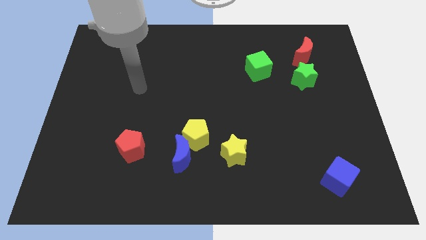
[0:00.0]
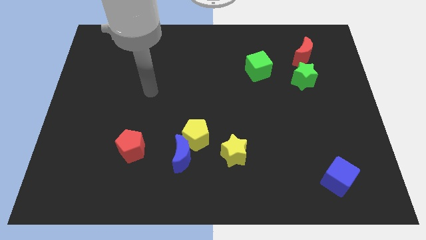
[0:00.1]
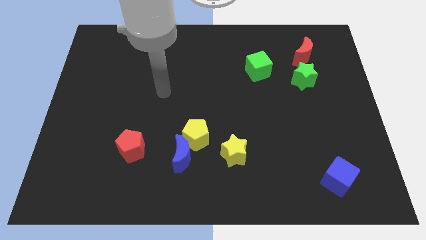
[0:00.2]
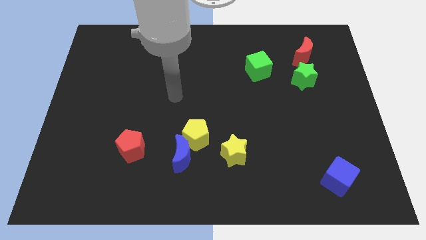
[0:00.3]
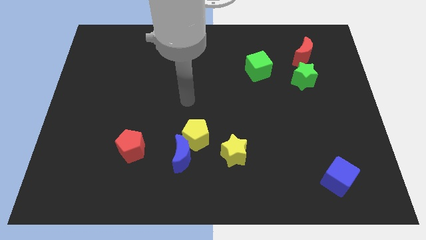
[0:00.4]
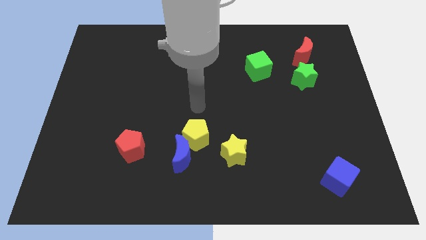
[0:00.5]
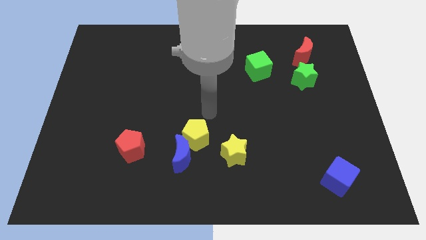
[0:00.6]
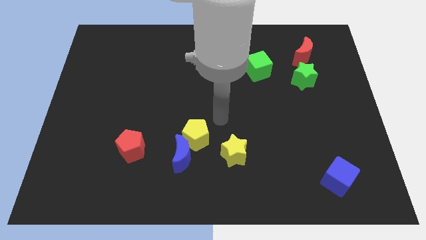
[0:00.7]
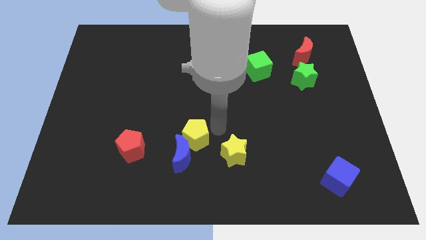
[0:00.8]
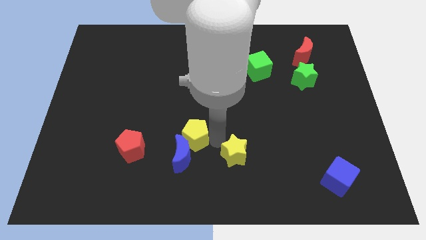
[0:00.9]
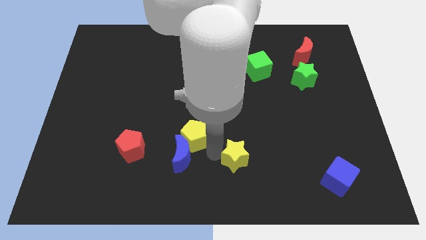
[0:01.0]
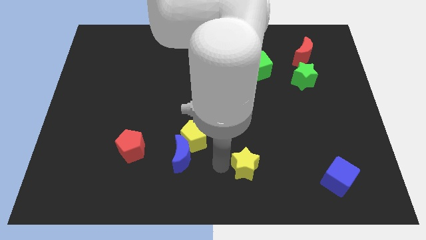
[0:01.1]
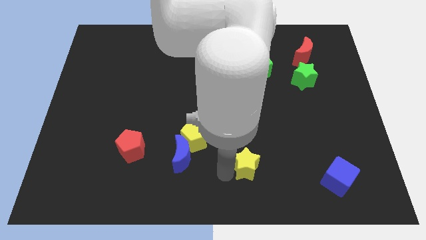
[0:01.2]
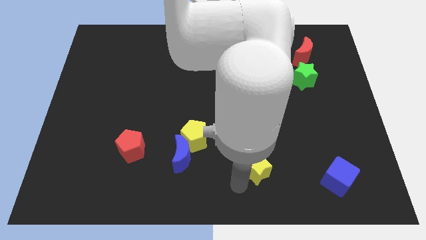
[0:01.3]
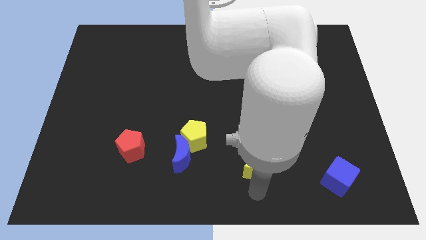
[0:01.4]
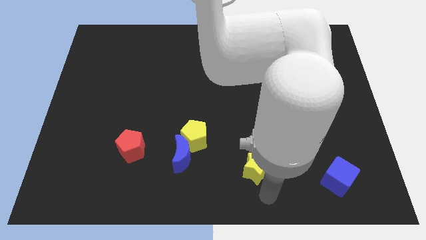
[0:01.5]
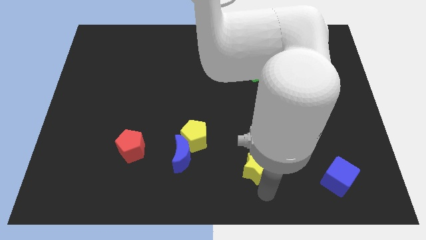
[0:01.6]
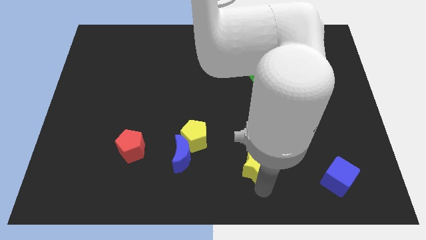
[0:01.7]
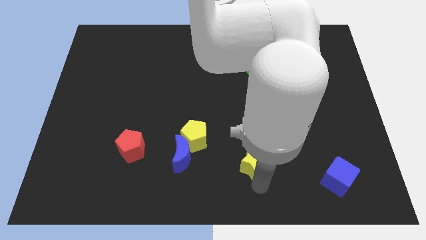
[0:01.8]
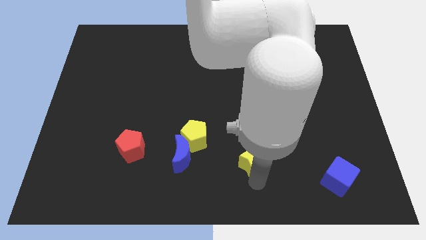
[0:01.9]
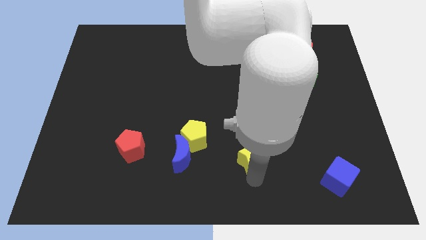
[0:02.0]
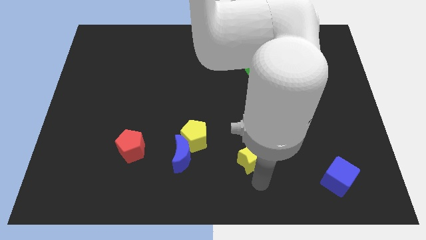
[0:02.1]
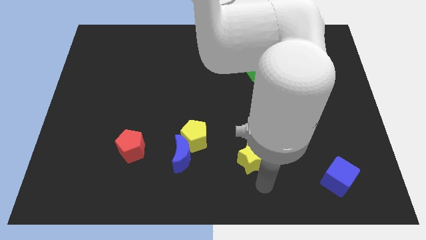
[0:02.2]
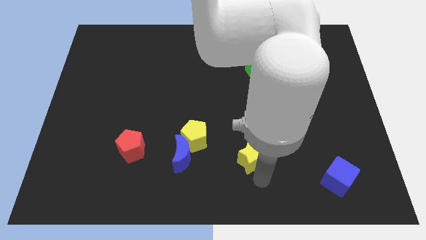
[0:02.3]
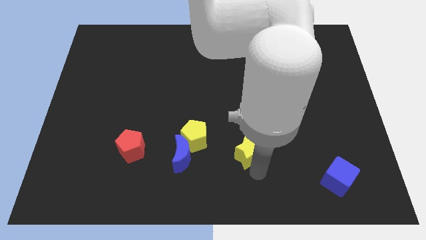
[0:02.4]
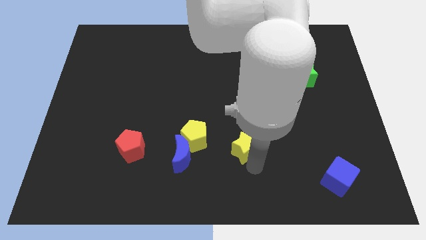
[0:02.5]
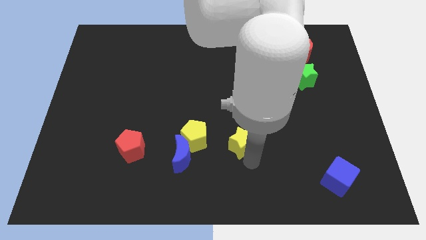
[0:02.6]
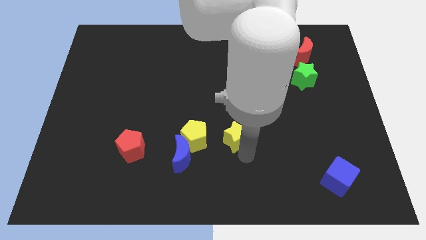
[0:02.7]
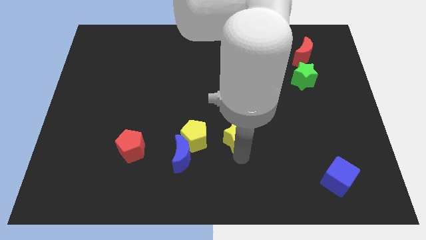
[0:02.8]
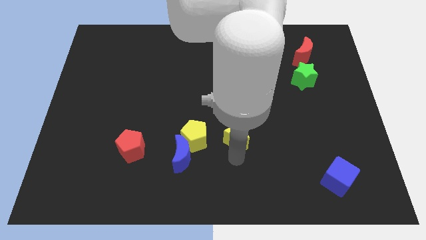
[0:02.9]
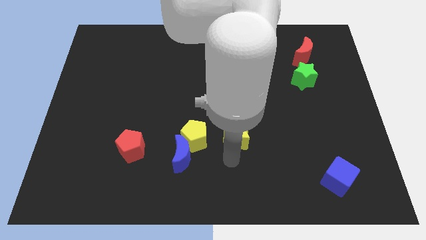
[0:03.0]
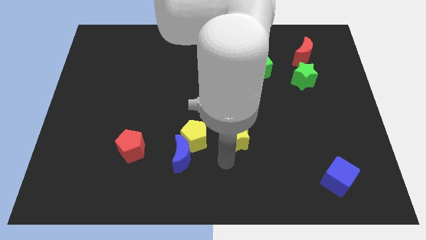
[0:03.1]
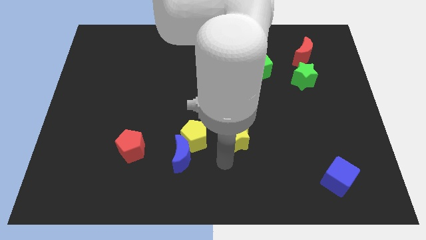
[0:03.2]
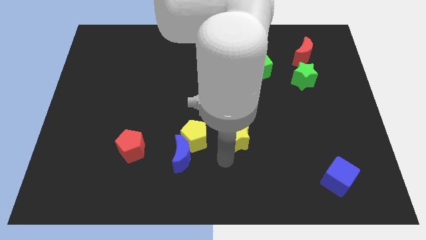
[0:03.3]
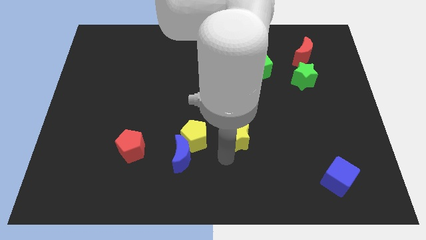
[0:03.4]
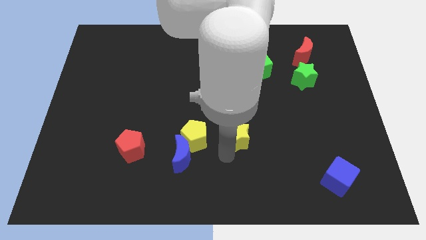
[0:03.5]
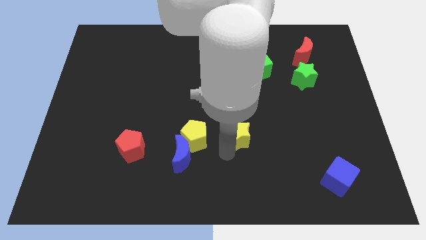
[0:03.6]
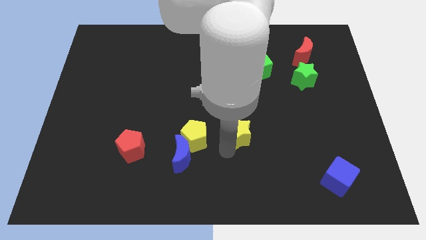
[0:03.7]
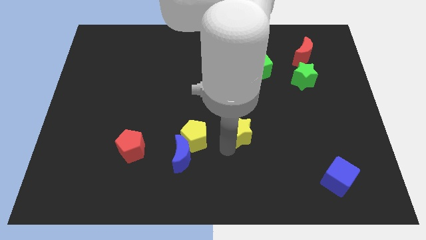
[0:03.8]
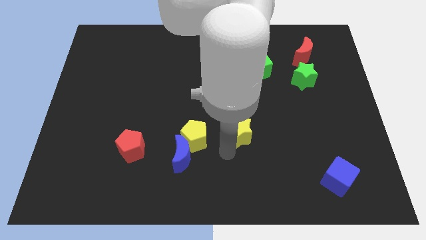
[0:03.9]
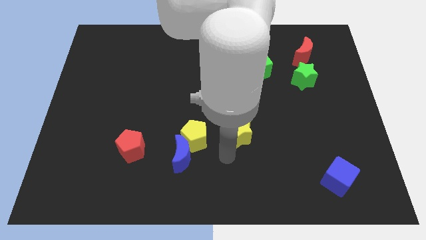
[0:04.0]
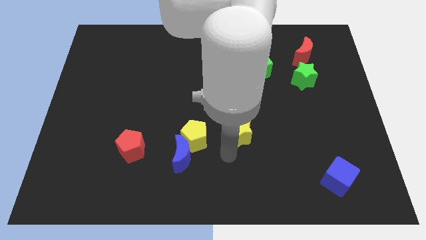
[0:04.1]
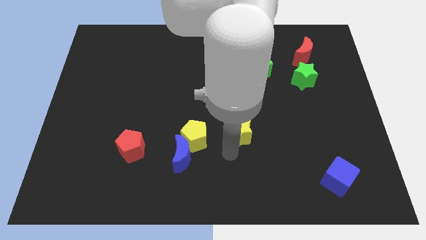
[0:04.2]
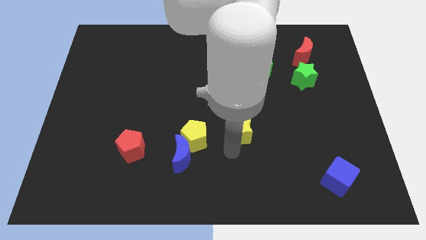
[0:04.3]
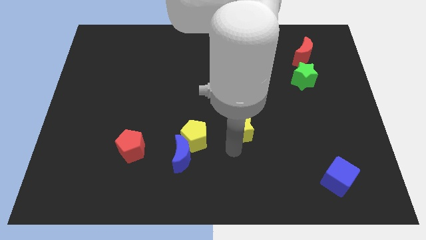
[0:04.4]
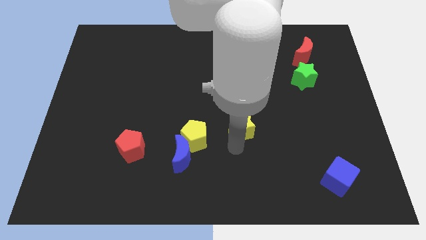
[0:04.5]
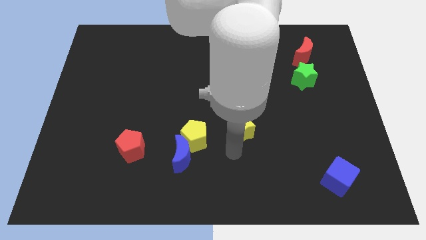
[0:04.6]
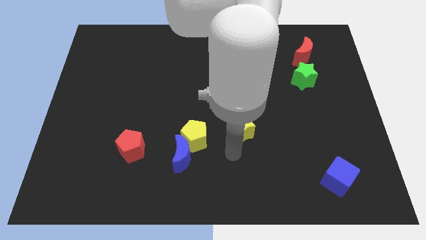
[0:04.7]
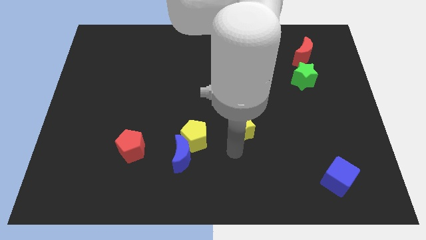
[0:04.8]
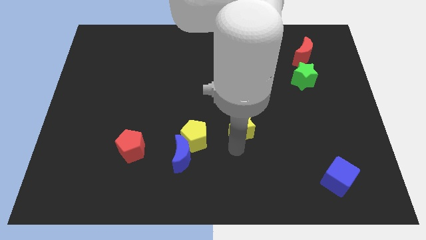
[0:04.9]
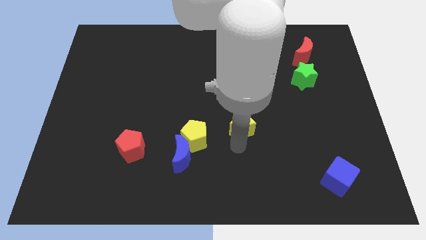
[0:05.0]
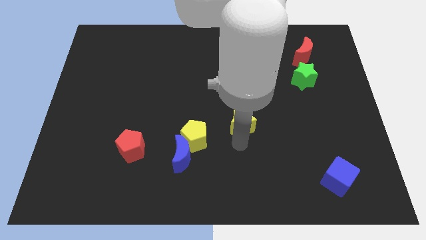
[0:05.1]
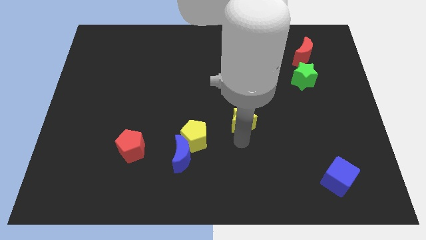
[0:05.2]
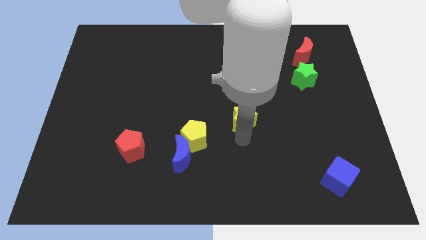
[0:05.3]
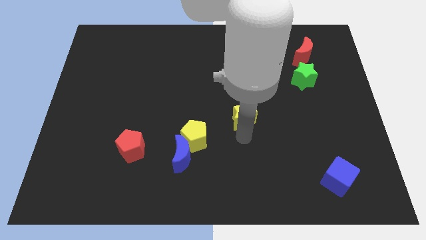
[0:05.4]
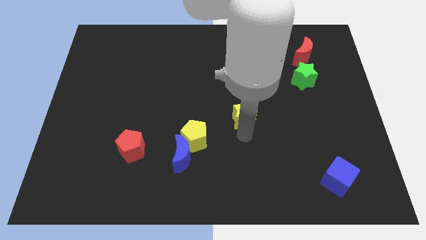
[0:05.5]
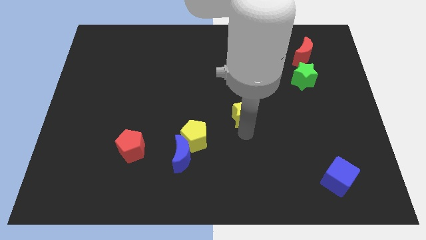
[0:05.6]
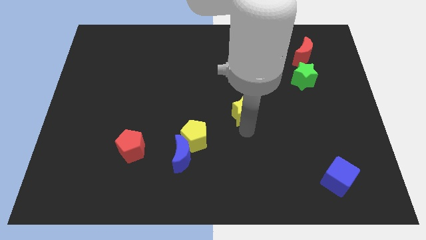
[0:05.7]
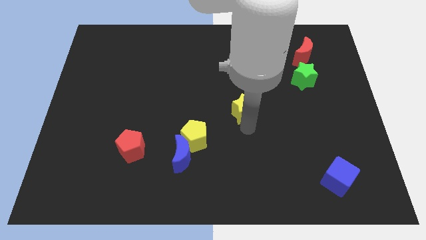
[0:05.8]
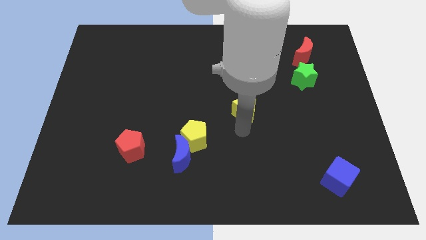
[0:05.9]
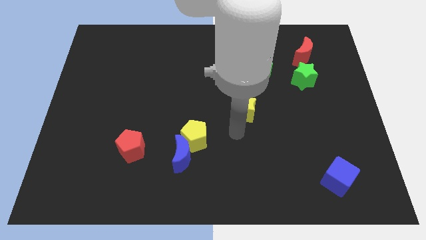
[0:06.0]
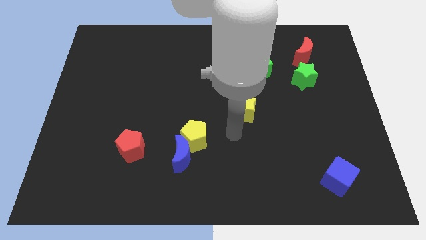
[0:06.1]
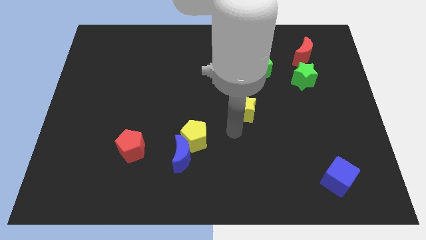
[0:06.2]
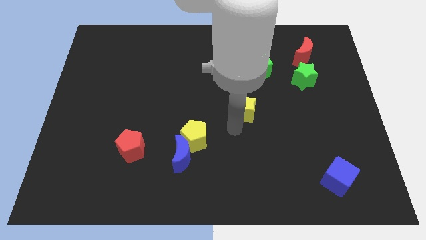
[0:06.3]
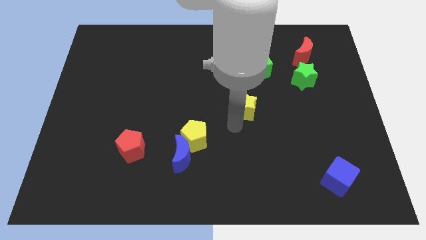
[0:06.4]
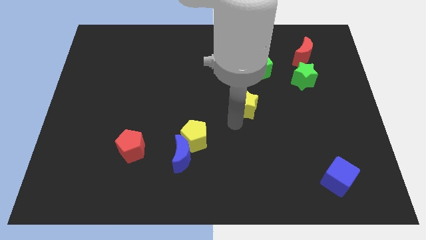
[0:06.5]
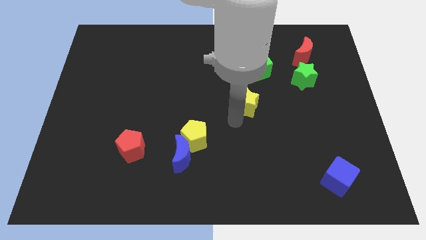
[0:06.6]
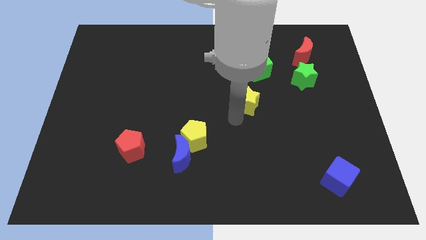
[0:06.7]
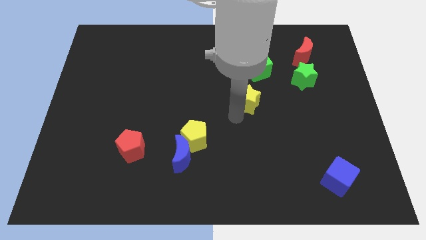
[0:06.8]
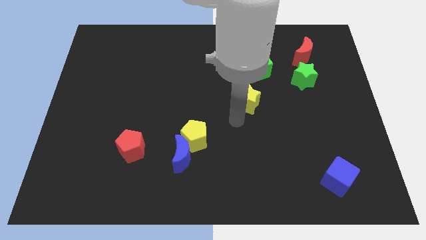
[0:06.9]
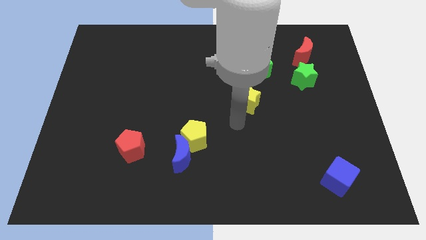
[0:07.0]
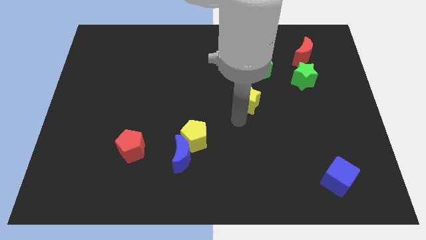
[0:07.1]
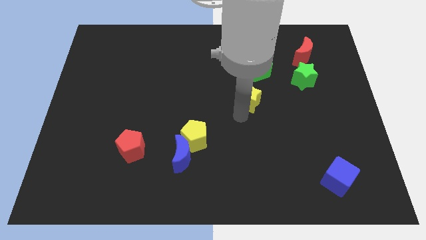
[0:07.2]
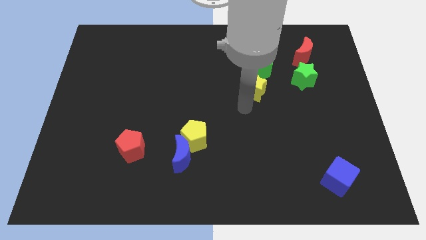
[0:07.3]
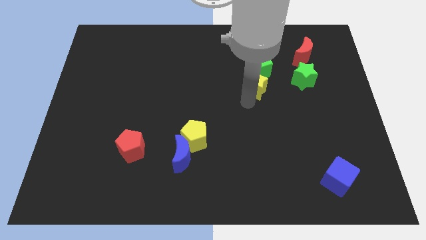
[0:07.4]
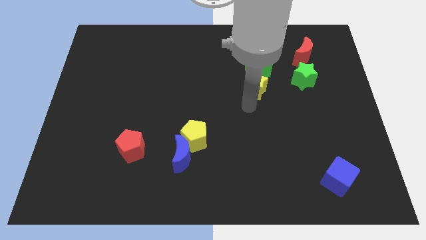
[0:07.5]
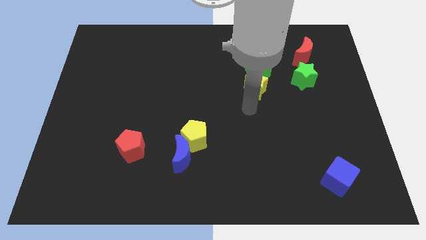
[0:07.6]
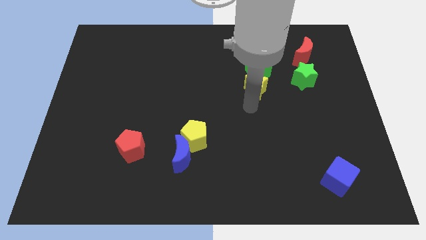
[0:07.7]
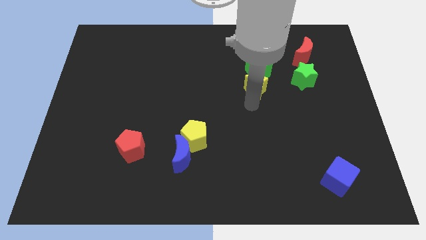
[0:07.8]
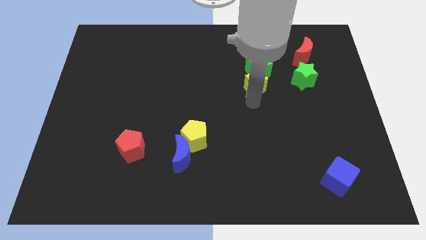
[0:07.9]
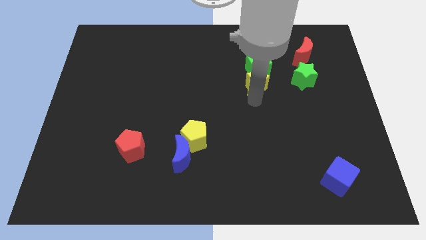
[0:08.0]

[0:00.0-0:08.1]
move the yellow star to the green cube
